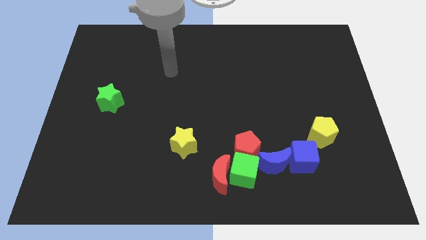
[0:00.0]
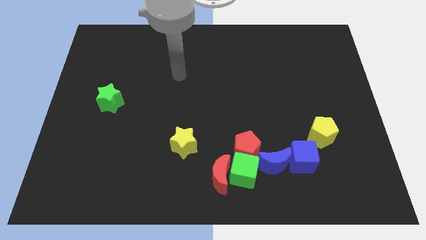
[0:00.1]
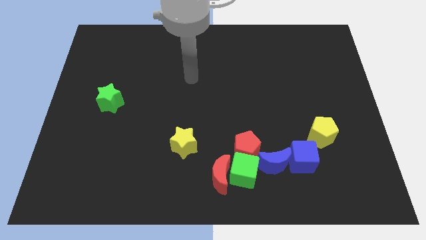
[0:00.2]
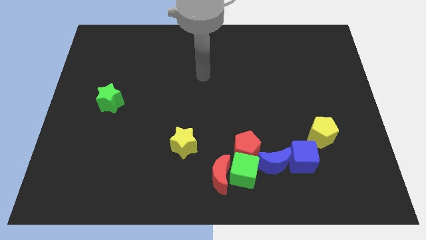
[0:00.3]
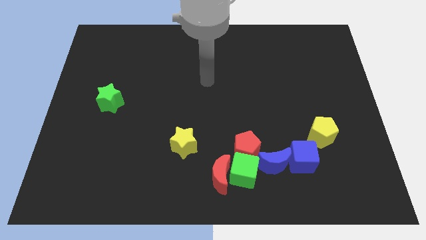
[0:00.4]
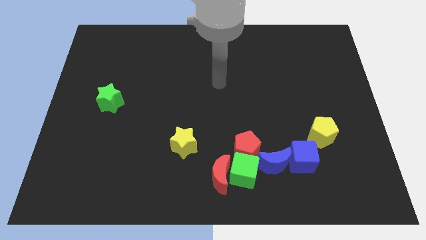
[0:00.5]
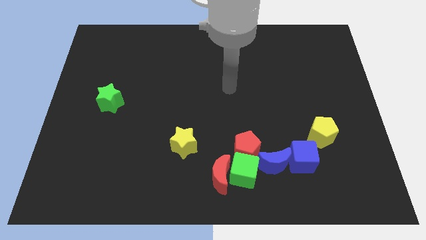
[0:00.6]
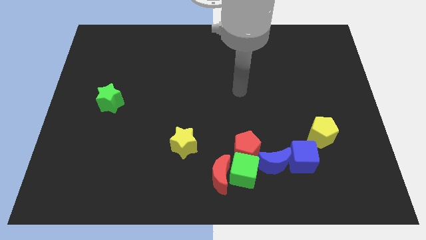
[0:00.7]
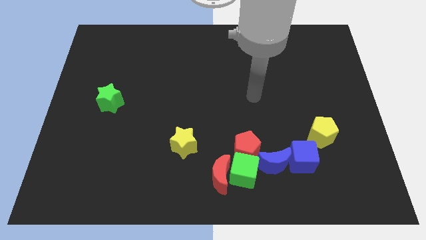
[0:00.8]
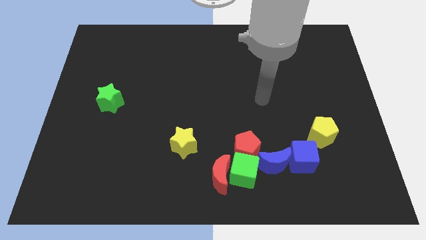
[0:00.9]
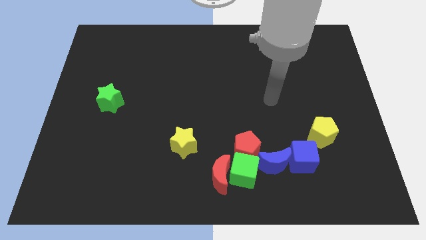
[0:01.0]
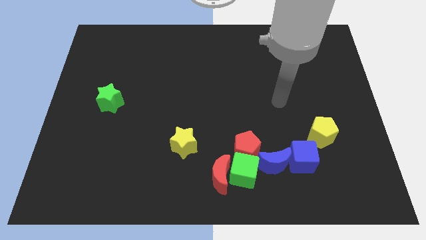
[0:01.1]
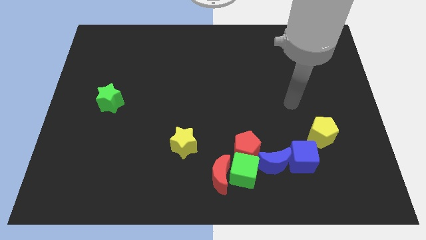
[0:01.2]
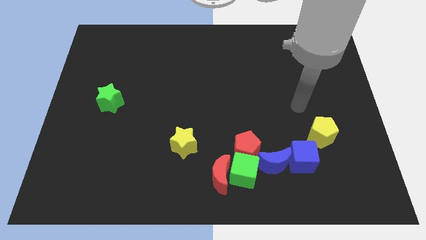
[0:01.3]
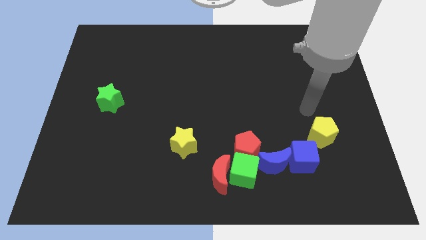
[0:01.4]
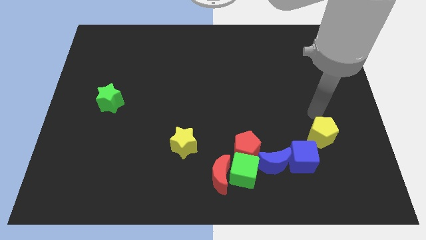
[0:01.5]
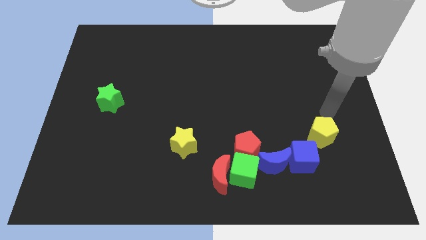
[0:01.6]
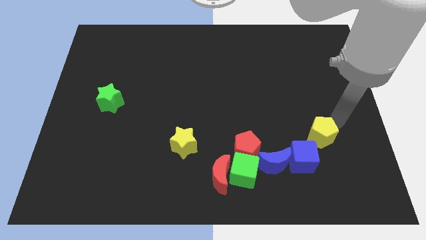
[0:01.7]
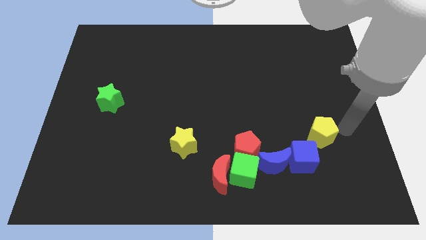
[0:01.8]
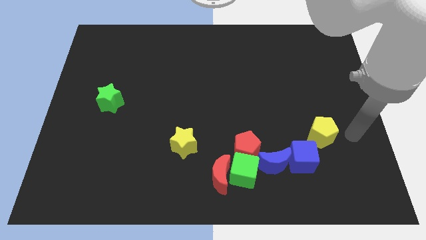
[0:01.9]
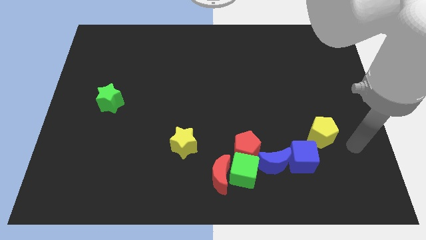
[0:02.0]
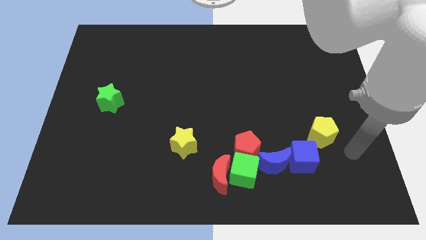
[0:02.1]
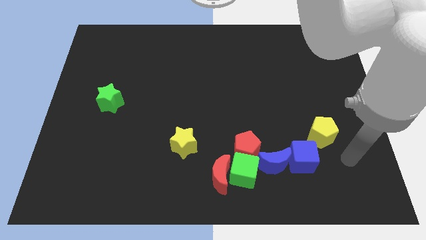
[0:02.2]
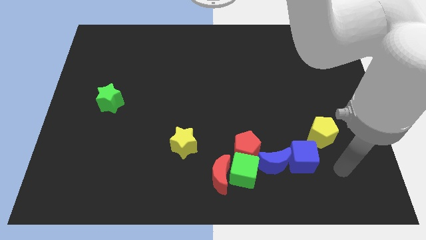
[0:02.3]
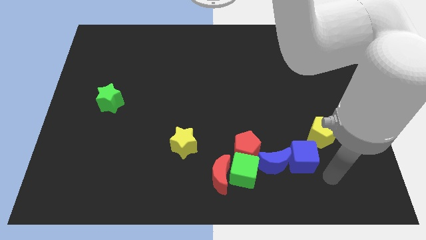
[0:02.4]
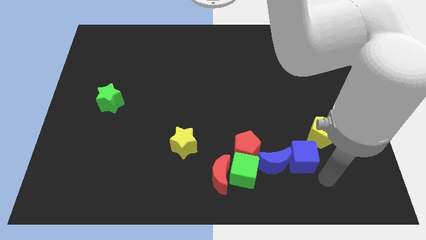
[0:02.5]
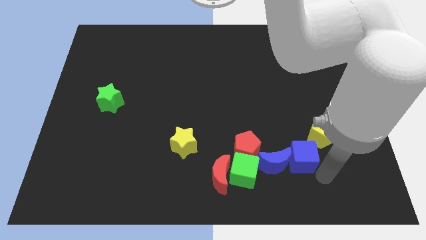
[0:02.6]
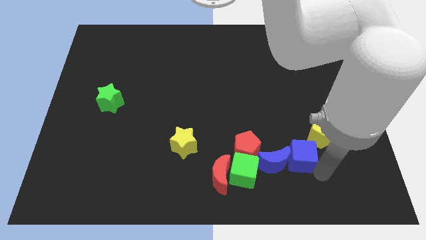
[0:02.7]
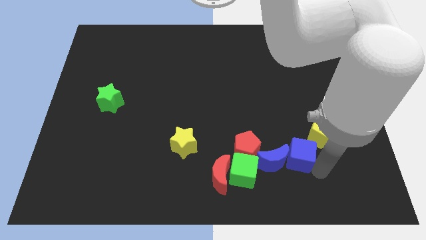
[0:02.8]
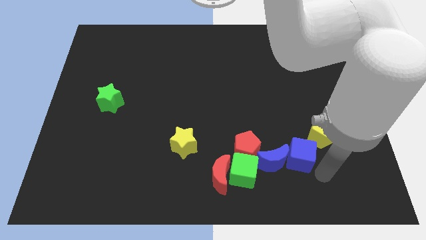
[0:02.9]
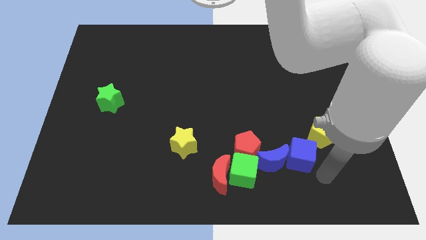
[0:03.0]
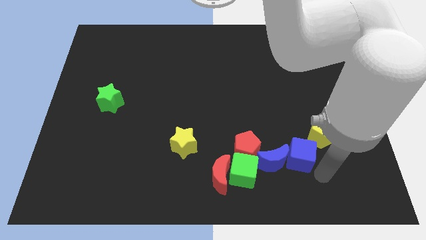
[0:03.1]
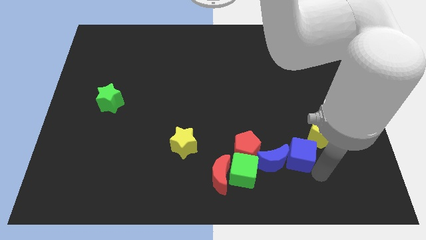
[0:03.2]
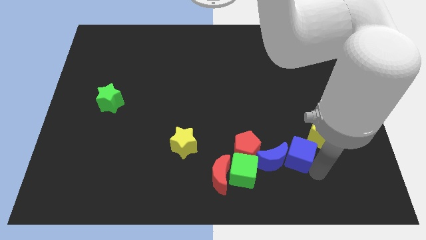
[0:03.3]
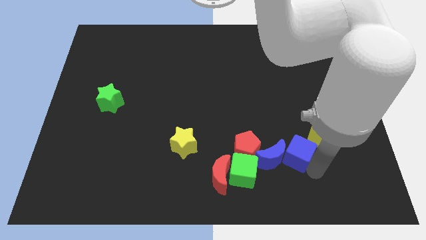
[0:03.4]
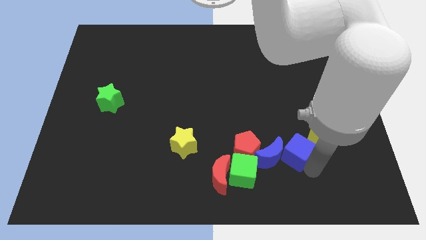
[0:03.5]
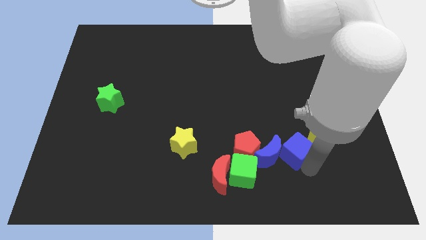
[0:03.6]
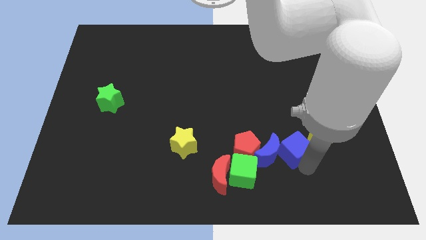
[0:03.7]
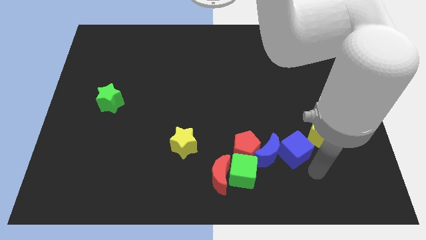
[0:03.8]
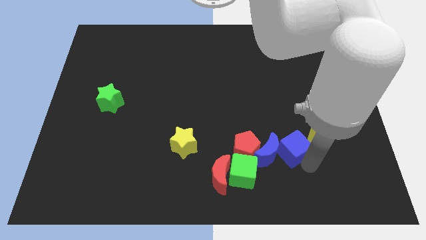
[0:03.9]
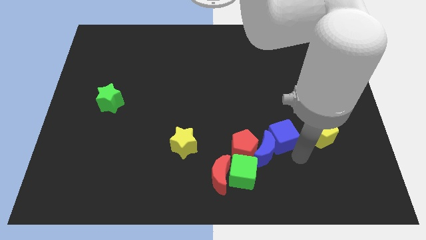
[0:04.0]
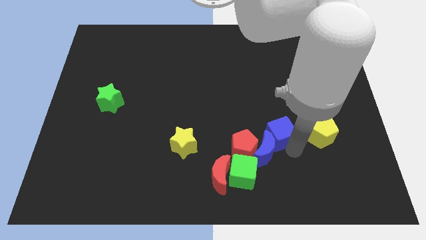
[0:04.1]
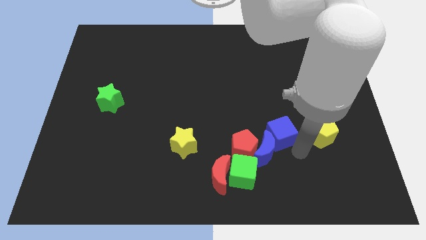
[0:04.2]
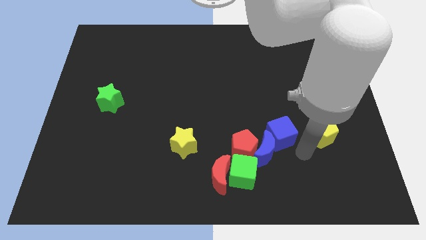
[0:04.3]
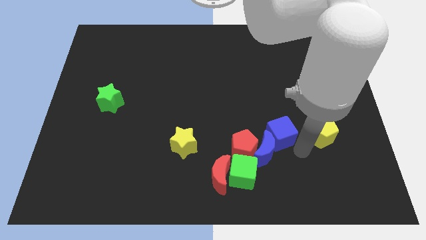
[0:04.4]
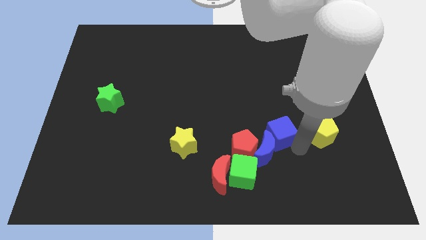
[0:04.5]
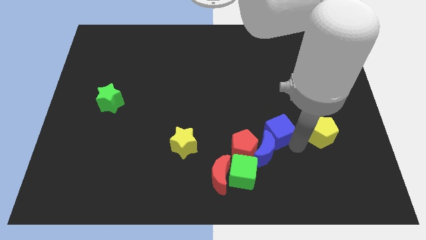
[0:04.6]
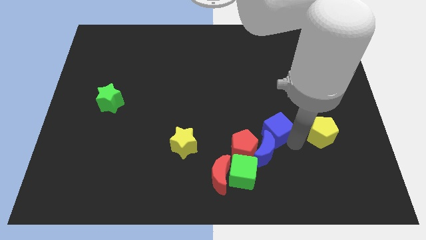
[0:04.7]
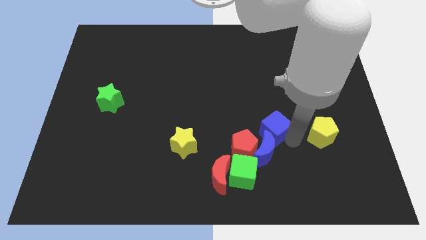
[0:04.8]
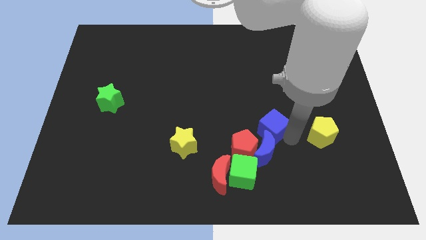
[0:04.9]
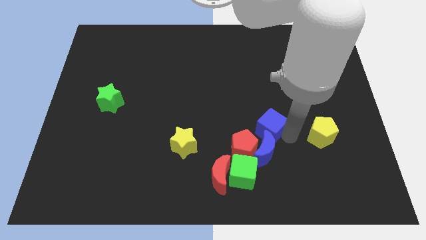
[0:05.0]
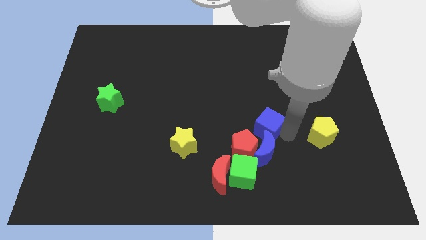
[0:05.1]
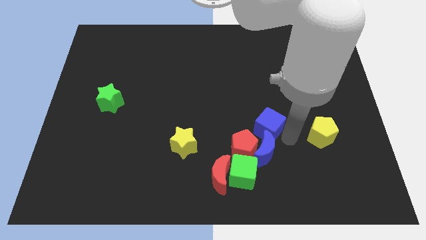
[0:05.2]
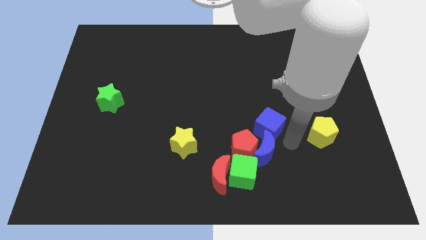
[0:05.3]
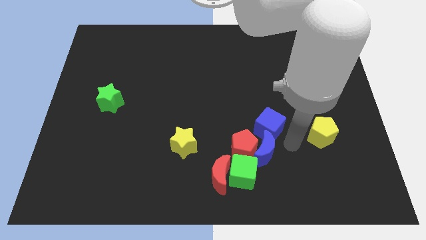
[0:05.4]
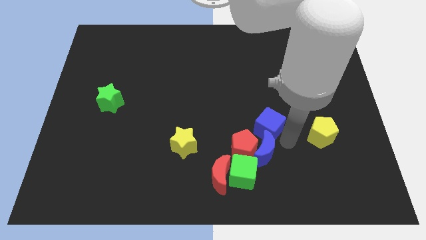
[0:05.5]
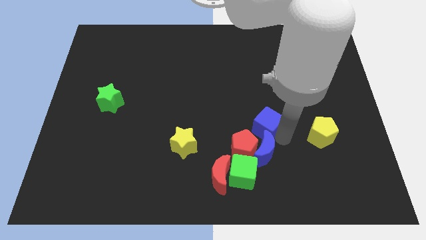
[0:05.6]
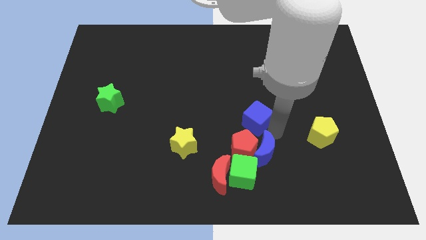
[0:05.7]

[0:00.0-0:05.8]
move the blue cube to the middle
